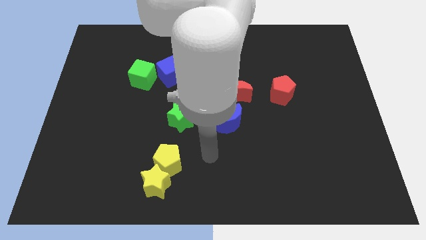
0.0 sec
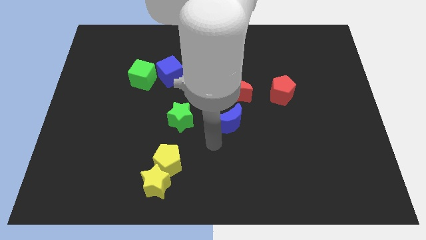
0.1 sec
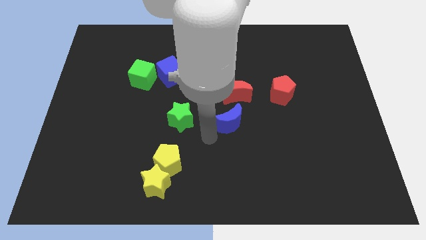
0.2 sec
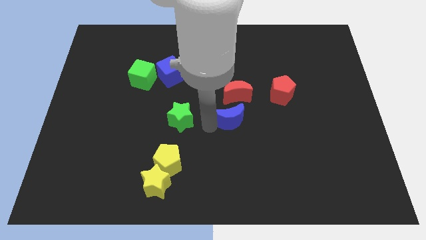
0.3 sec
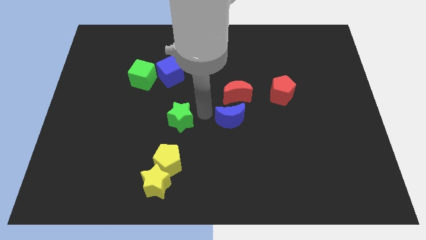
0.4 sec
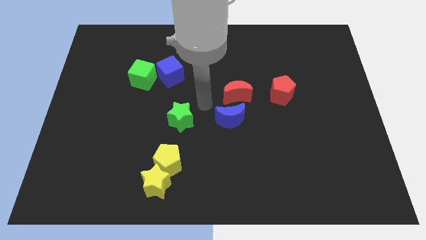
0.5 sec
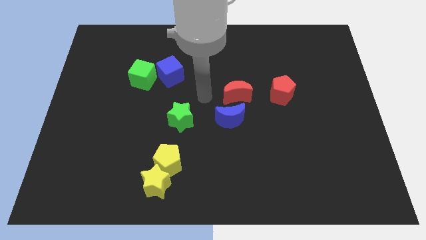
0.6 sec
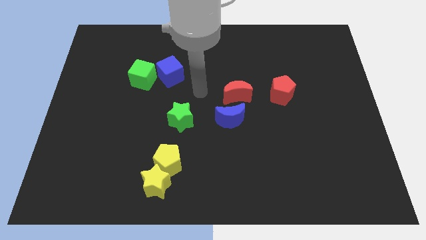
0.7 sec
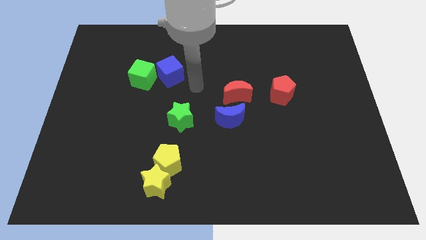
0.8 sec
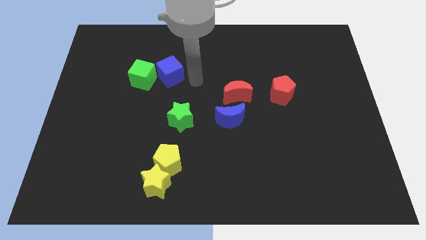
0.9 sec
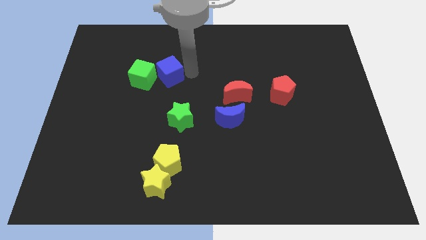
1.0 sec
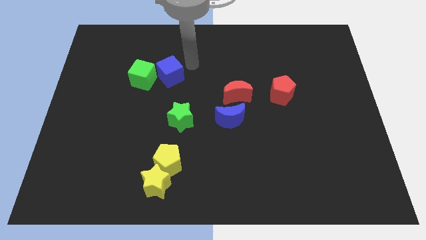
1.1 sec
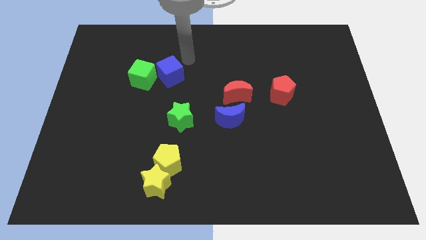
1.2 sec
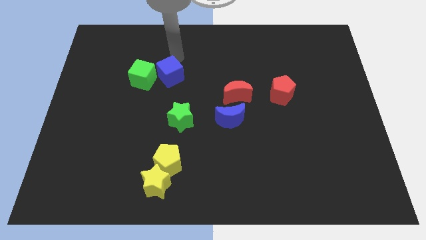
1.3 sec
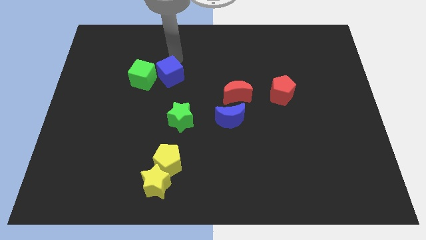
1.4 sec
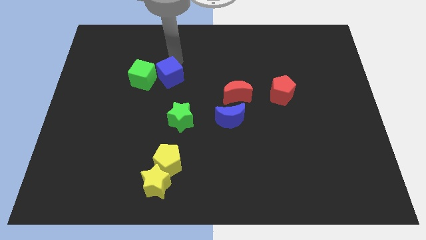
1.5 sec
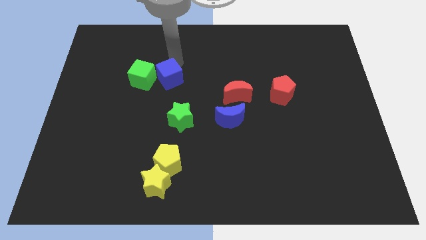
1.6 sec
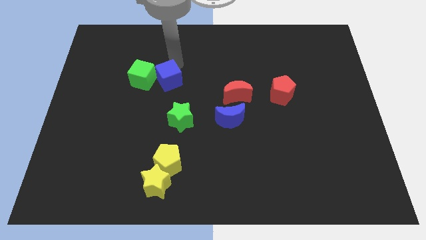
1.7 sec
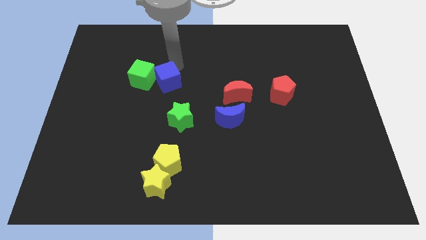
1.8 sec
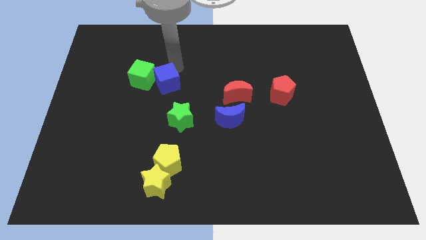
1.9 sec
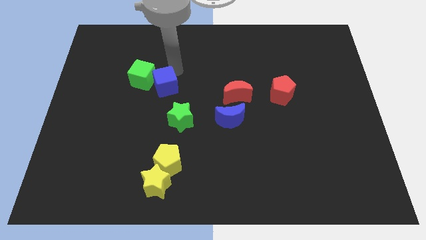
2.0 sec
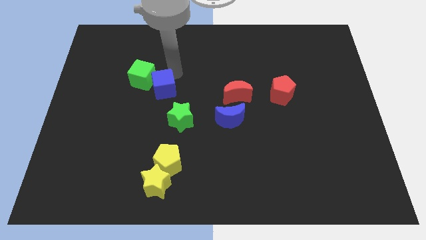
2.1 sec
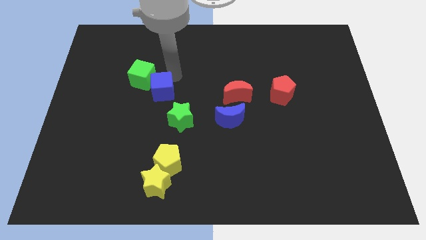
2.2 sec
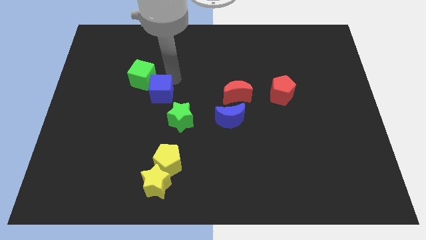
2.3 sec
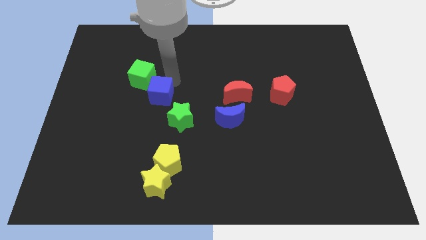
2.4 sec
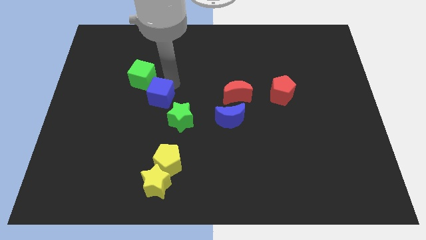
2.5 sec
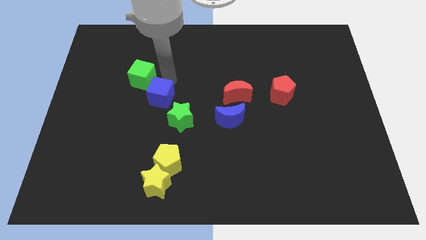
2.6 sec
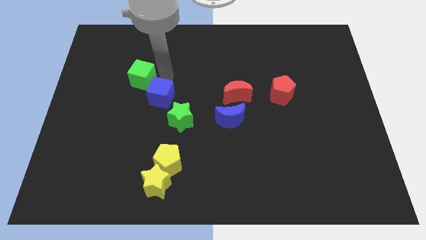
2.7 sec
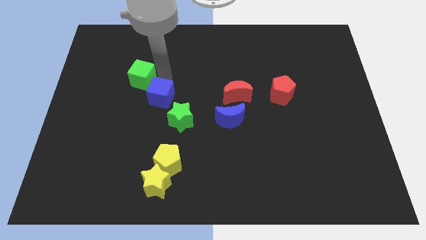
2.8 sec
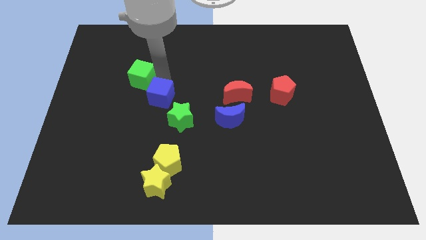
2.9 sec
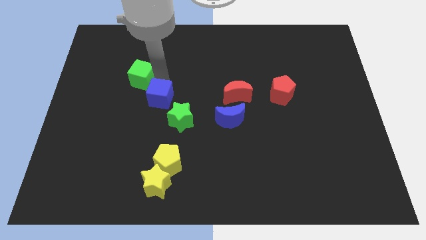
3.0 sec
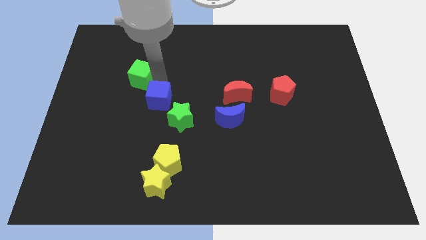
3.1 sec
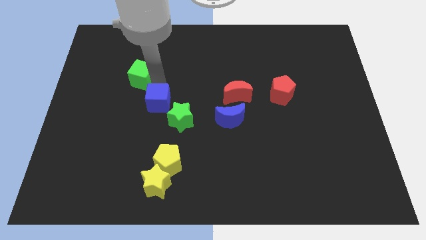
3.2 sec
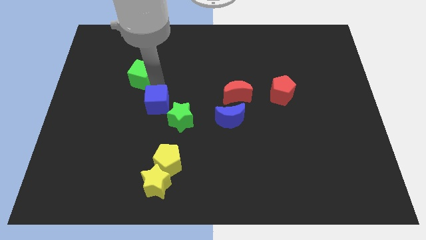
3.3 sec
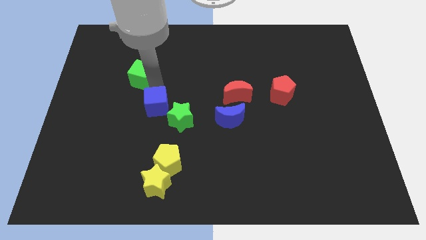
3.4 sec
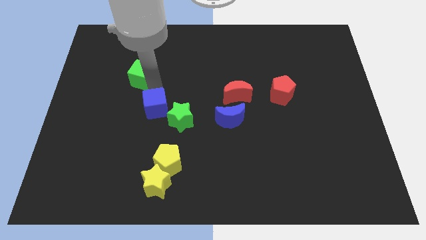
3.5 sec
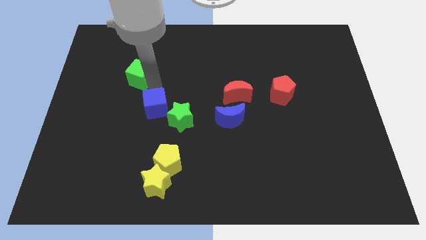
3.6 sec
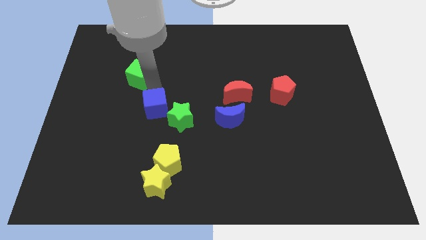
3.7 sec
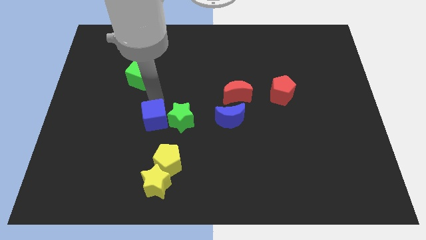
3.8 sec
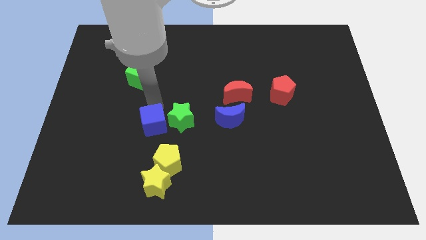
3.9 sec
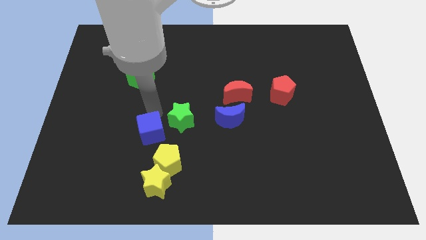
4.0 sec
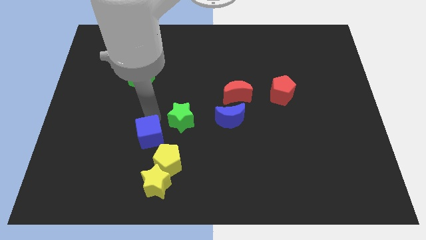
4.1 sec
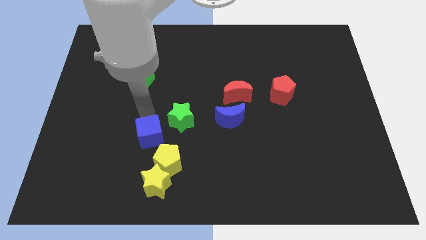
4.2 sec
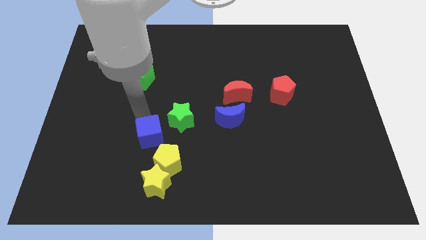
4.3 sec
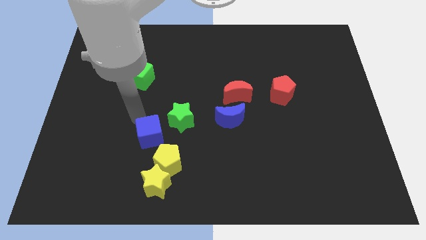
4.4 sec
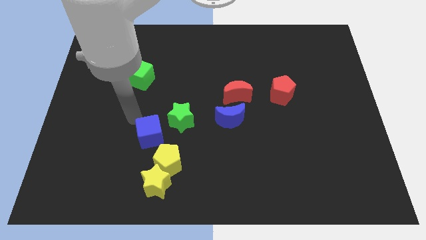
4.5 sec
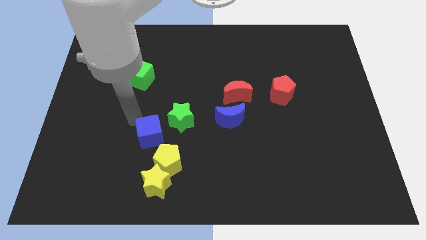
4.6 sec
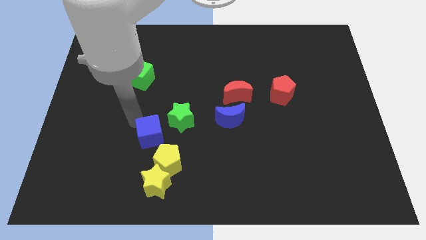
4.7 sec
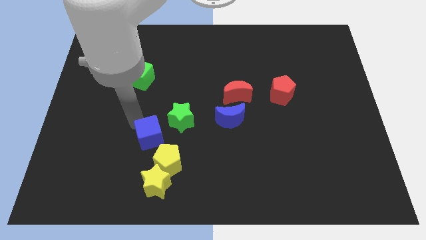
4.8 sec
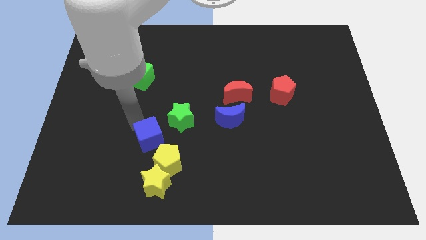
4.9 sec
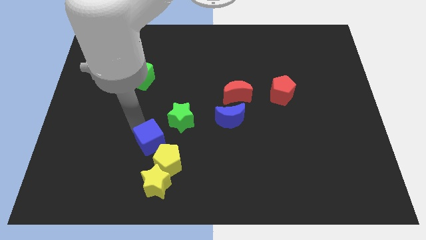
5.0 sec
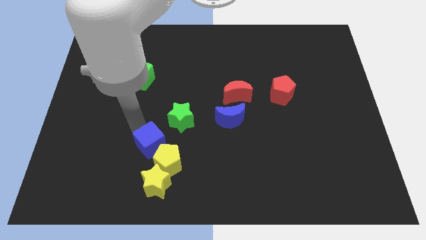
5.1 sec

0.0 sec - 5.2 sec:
slide the blue cube close to the yellow pentagon

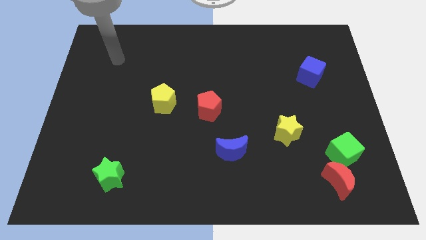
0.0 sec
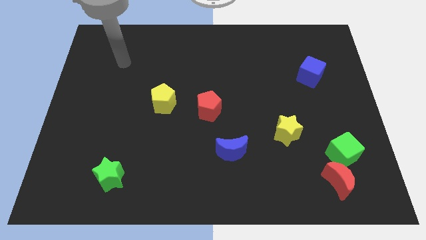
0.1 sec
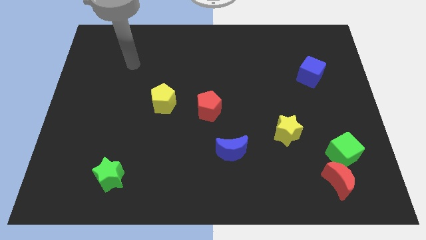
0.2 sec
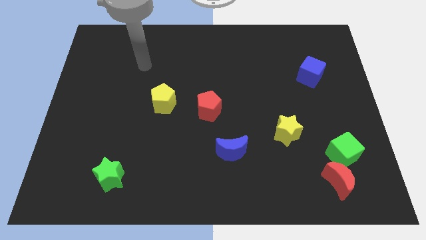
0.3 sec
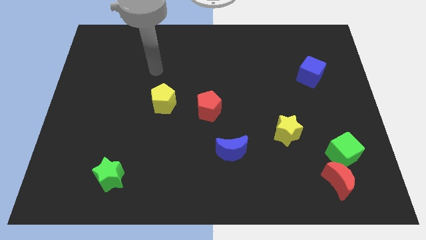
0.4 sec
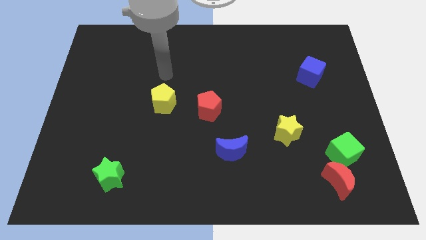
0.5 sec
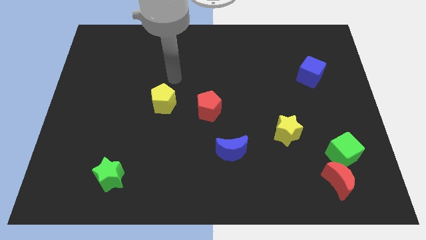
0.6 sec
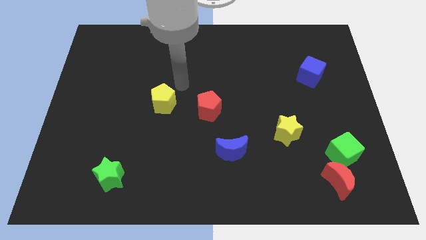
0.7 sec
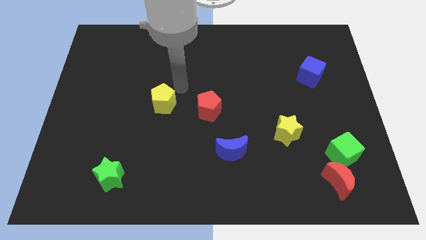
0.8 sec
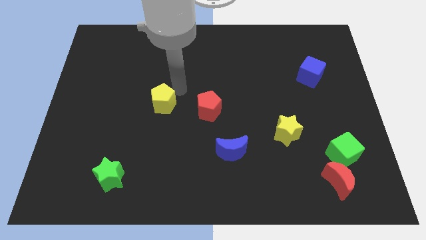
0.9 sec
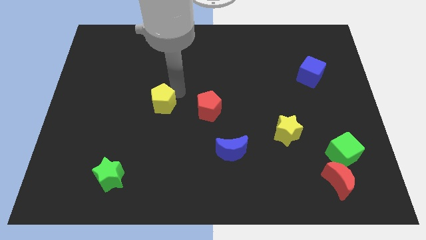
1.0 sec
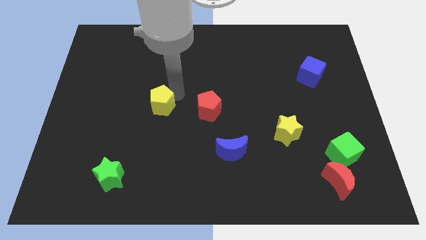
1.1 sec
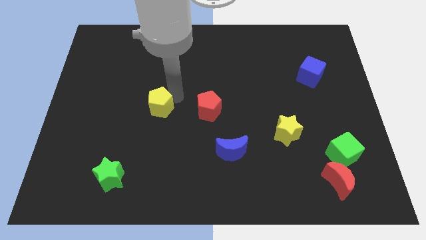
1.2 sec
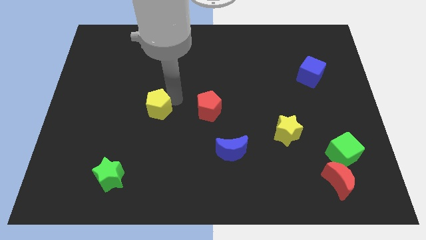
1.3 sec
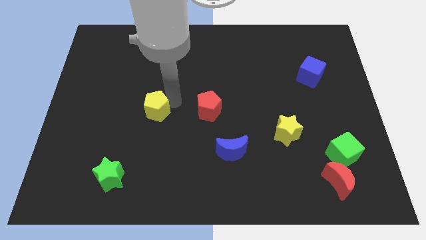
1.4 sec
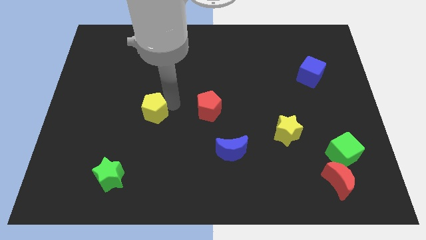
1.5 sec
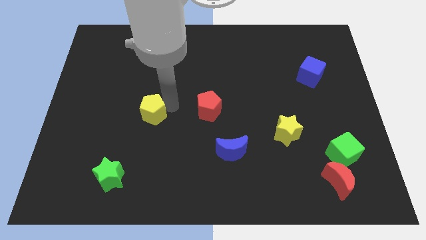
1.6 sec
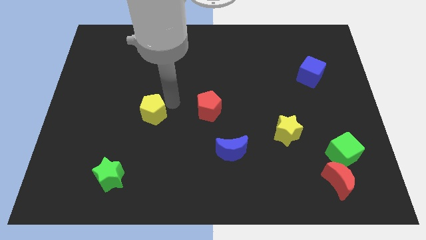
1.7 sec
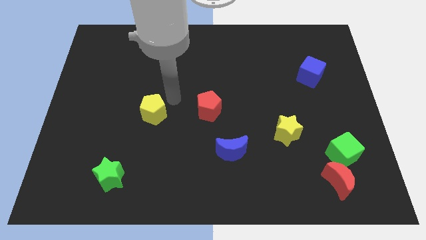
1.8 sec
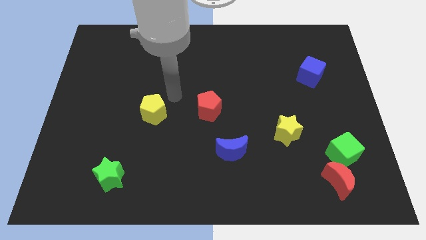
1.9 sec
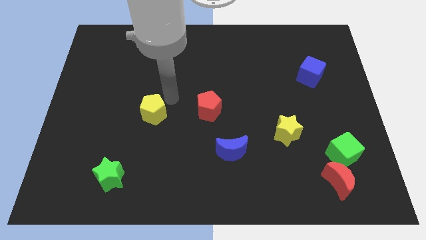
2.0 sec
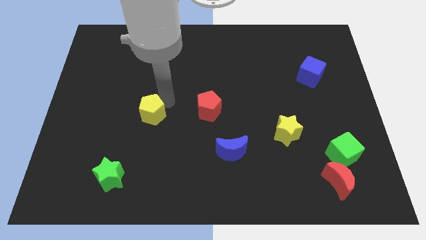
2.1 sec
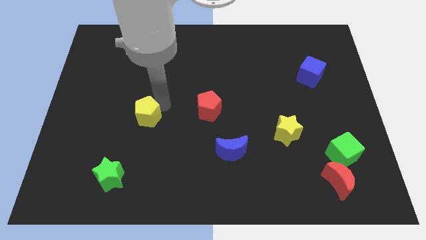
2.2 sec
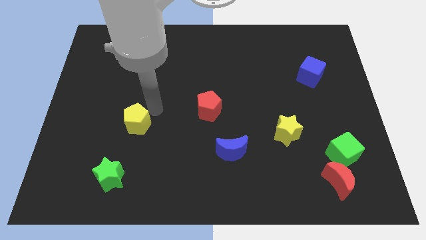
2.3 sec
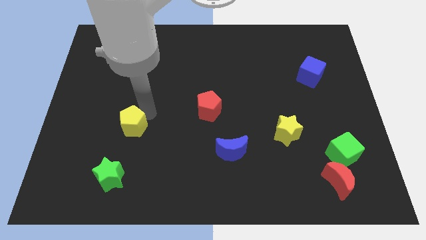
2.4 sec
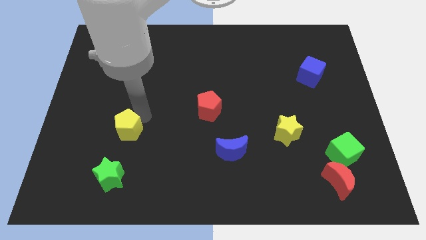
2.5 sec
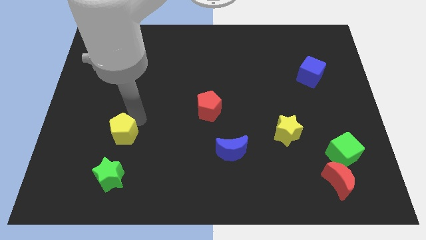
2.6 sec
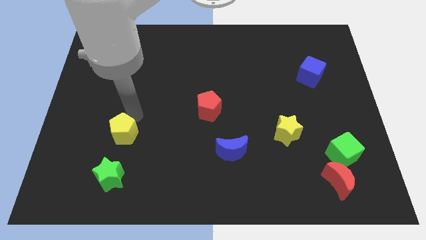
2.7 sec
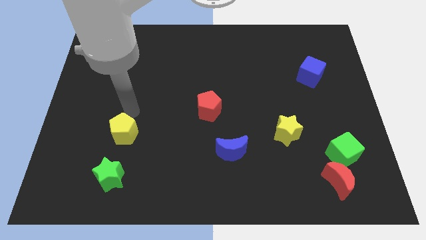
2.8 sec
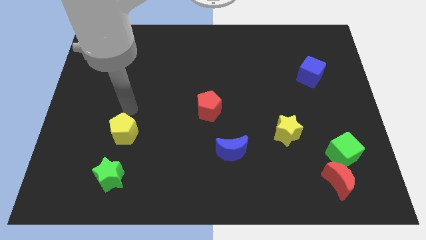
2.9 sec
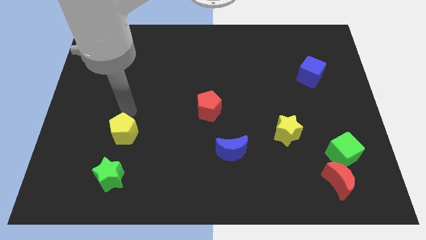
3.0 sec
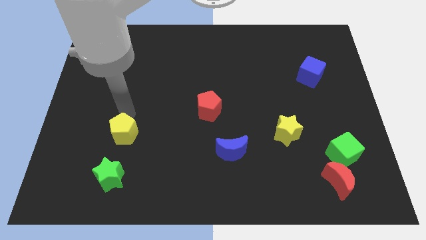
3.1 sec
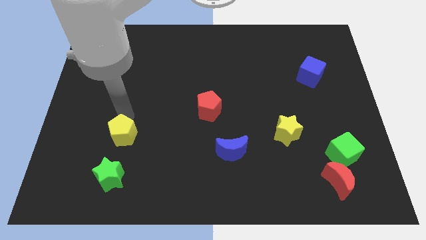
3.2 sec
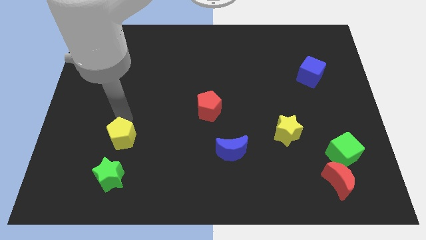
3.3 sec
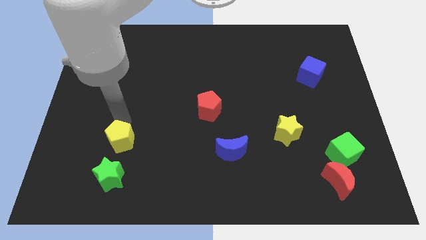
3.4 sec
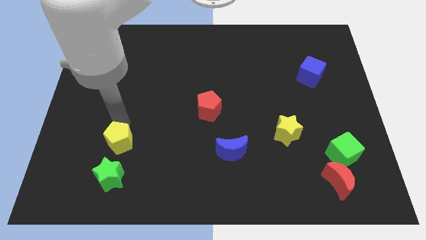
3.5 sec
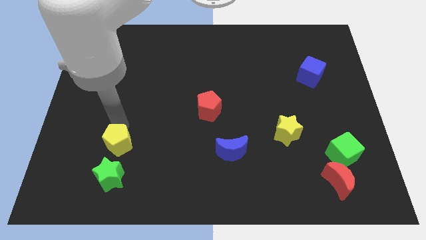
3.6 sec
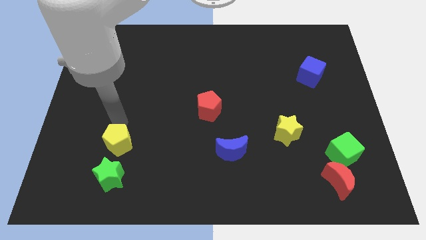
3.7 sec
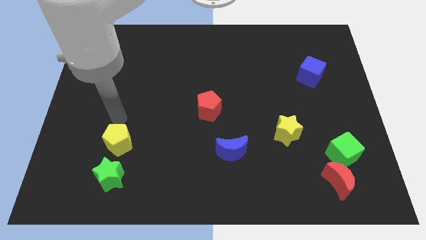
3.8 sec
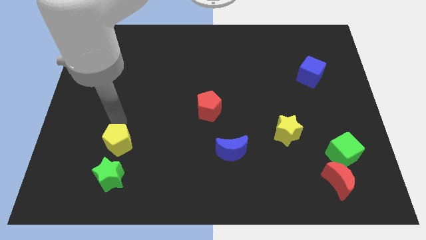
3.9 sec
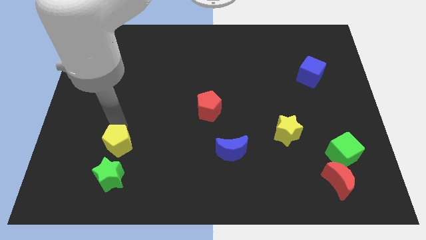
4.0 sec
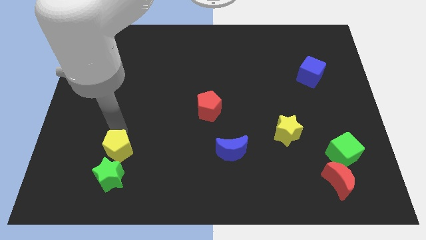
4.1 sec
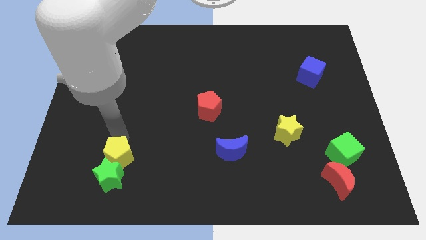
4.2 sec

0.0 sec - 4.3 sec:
push the yellow pentagon towards the green star
